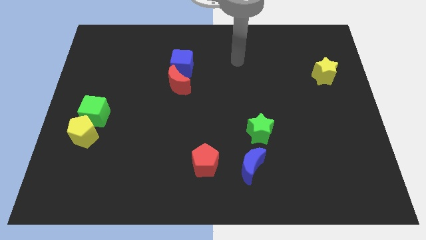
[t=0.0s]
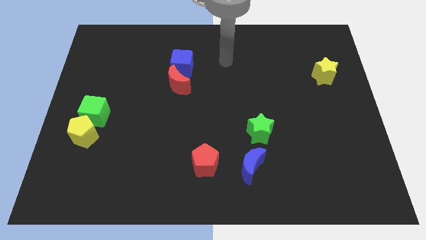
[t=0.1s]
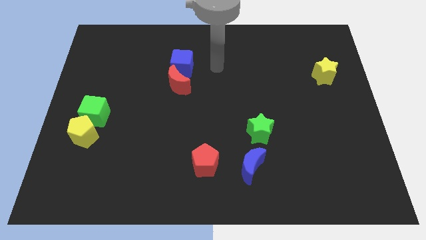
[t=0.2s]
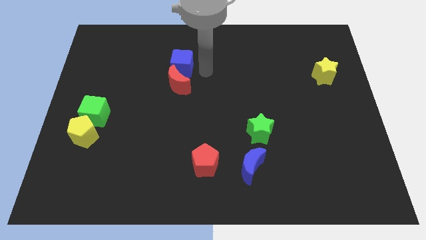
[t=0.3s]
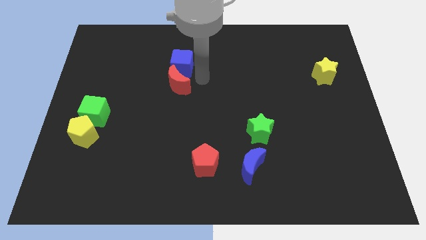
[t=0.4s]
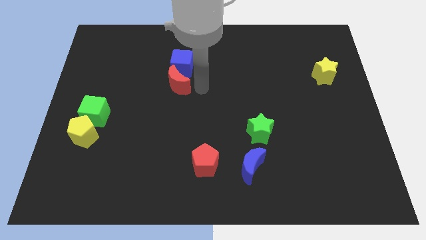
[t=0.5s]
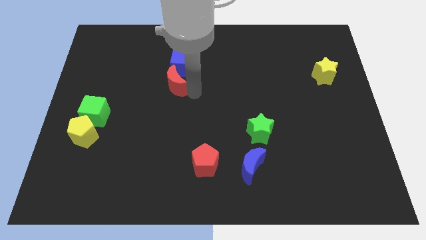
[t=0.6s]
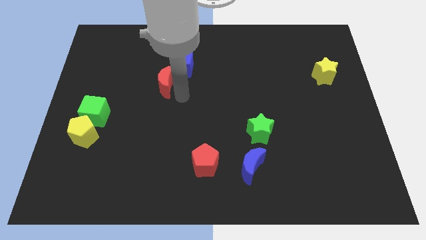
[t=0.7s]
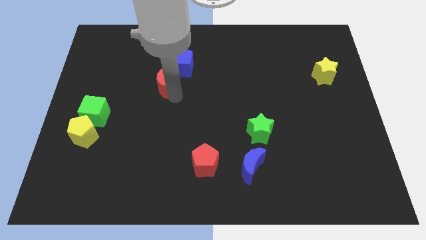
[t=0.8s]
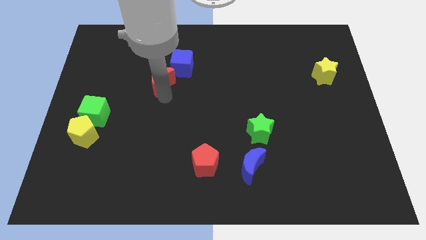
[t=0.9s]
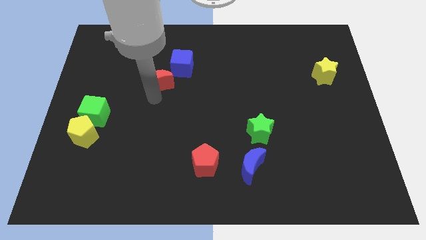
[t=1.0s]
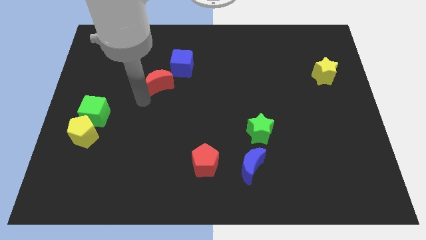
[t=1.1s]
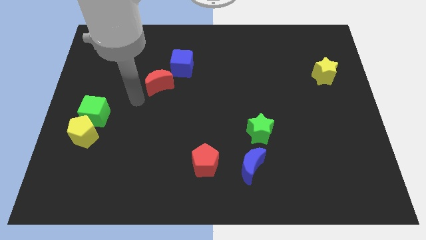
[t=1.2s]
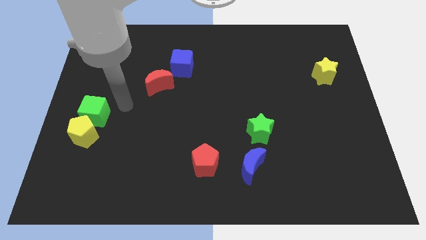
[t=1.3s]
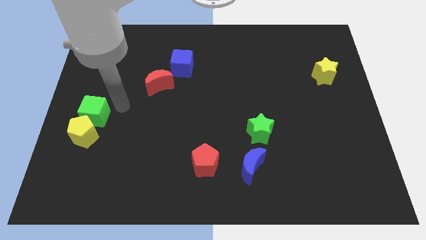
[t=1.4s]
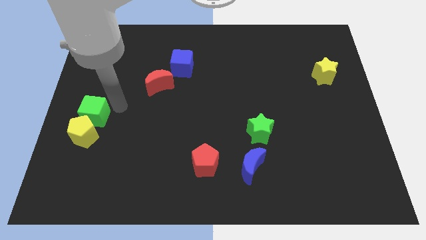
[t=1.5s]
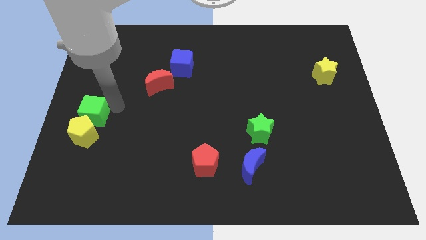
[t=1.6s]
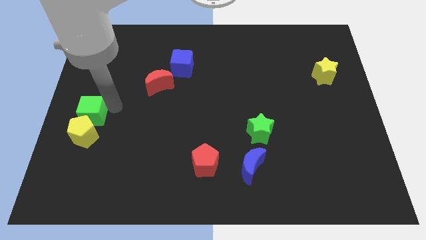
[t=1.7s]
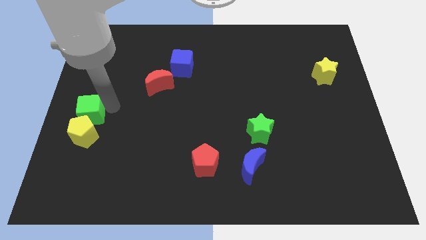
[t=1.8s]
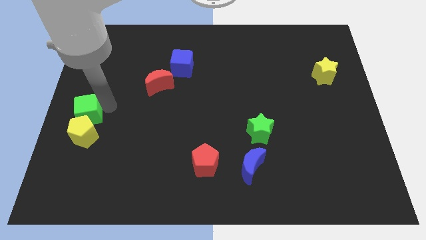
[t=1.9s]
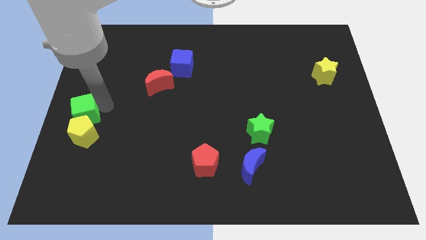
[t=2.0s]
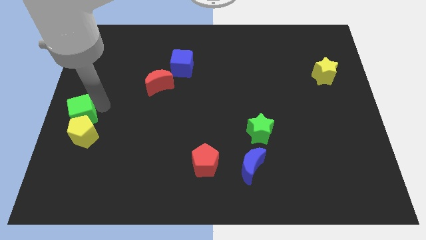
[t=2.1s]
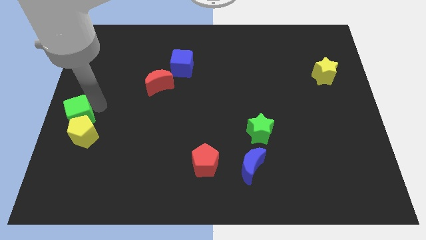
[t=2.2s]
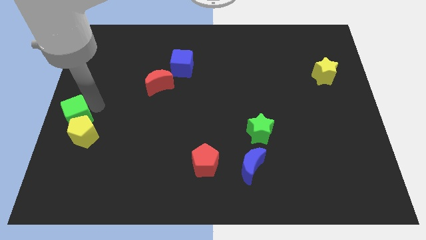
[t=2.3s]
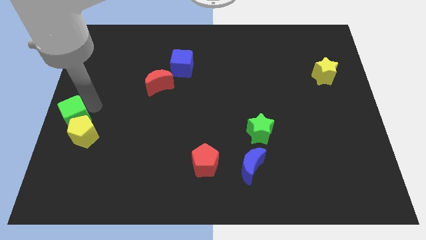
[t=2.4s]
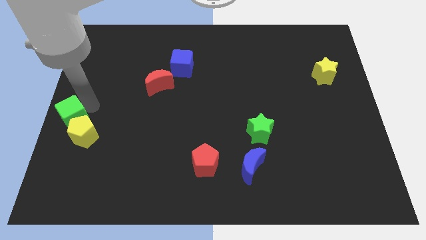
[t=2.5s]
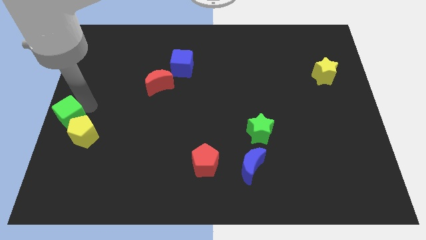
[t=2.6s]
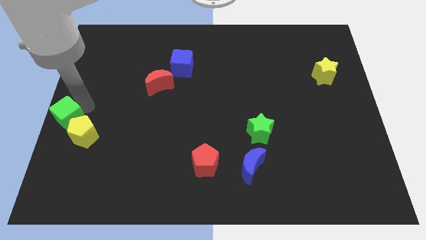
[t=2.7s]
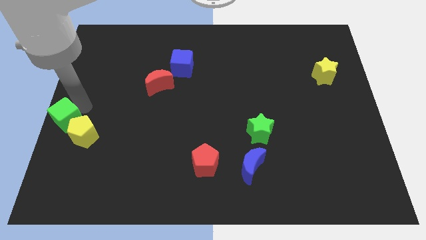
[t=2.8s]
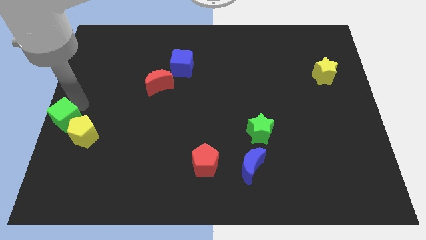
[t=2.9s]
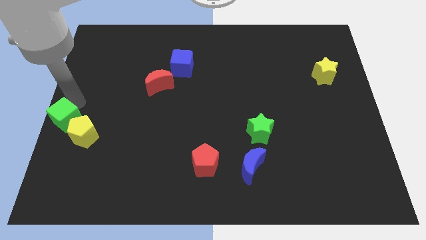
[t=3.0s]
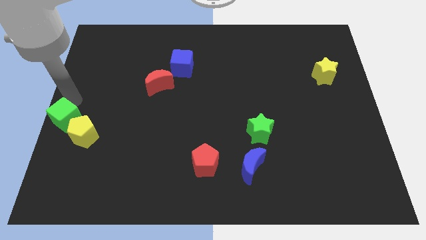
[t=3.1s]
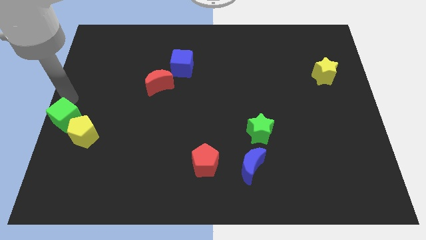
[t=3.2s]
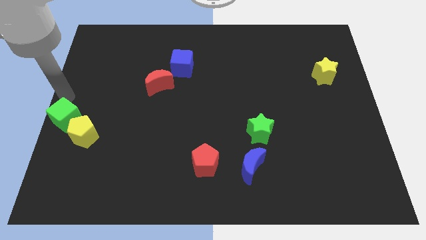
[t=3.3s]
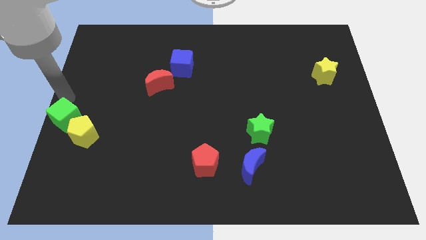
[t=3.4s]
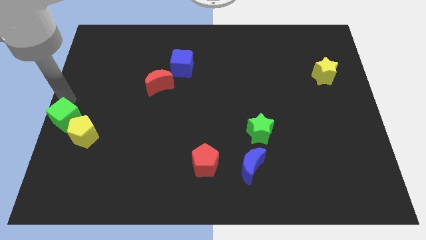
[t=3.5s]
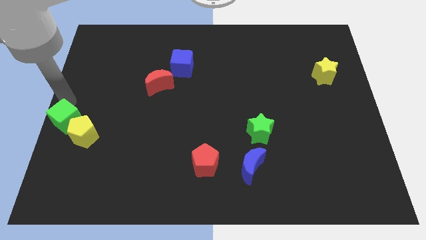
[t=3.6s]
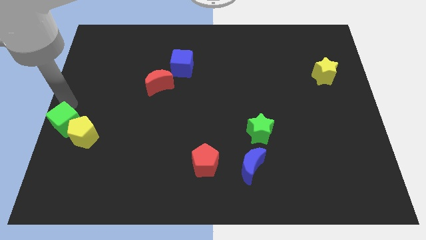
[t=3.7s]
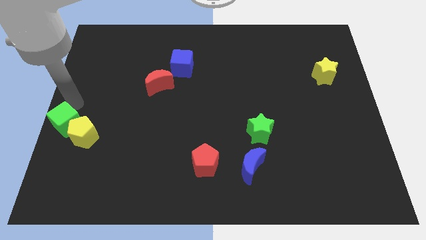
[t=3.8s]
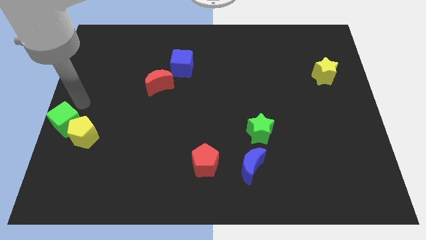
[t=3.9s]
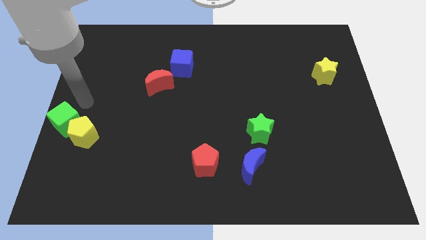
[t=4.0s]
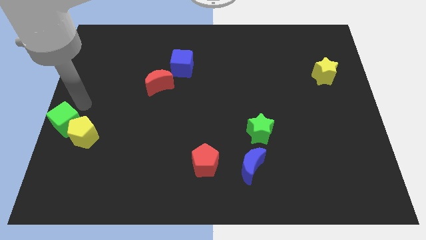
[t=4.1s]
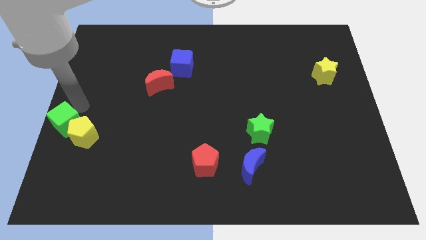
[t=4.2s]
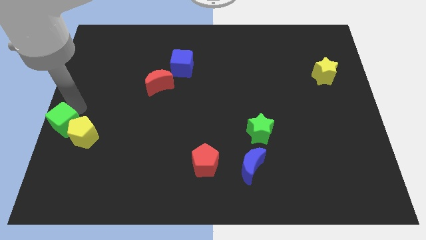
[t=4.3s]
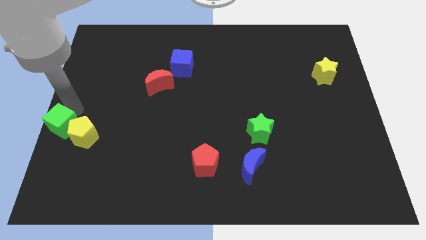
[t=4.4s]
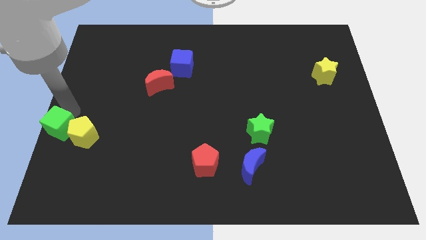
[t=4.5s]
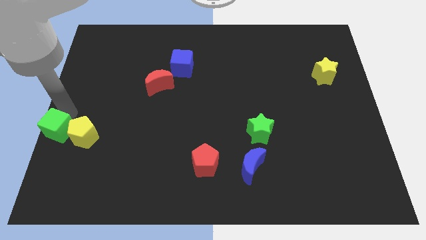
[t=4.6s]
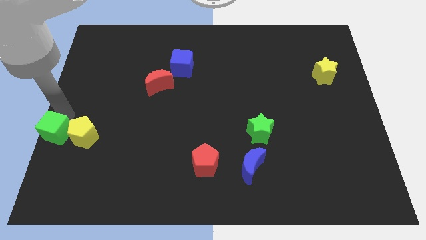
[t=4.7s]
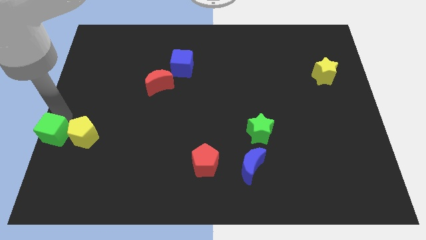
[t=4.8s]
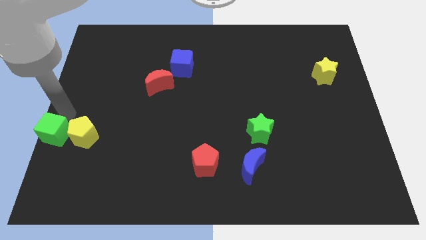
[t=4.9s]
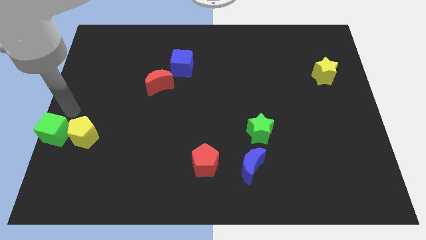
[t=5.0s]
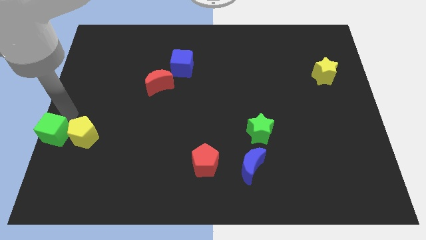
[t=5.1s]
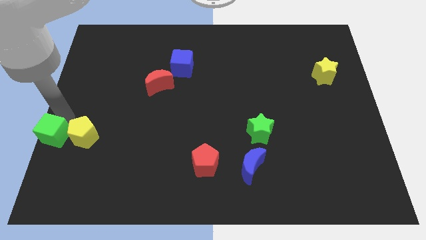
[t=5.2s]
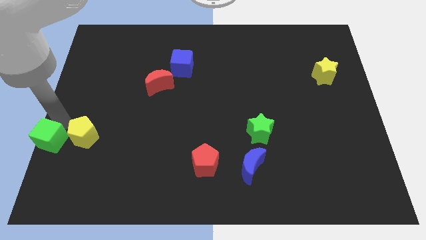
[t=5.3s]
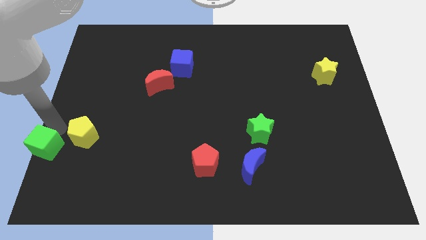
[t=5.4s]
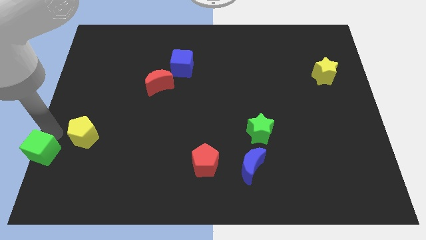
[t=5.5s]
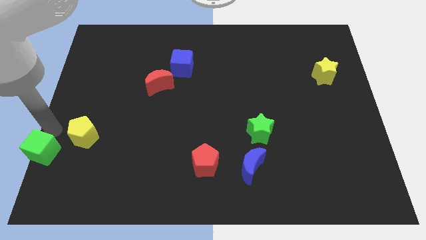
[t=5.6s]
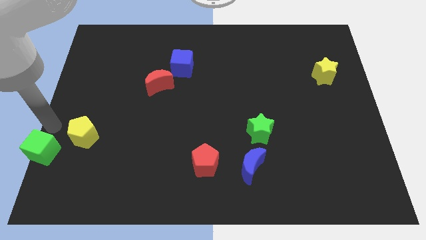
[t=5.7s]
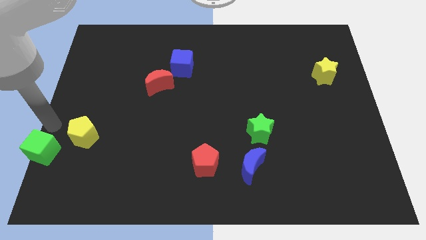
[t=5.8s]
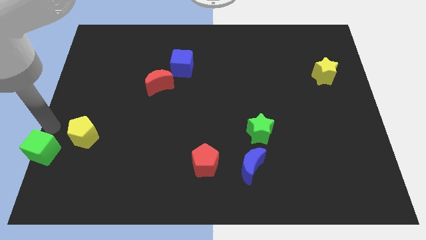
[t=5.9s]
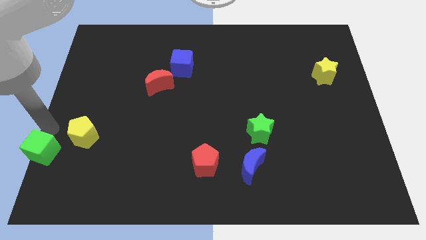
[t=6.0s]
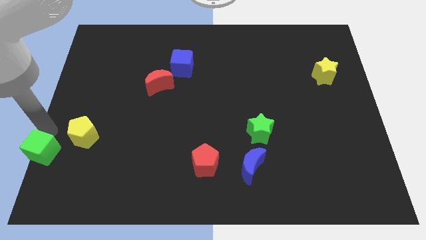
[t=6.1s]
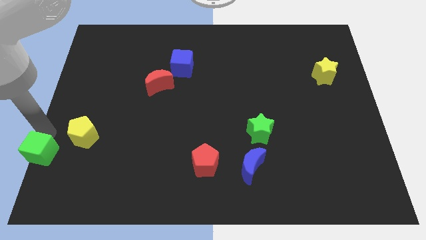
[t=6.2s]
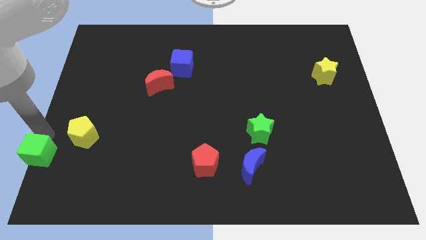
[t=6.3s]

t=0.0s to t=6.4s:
slide the green cube to the bottom left of the board

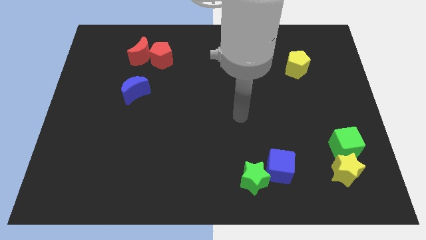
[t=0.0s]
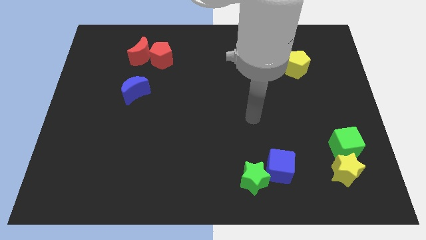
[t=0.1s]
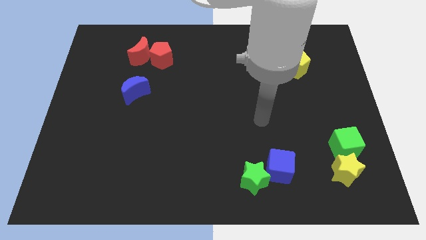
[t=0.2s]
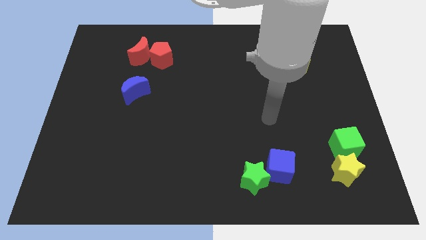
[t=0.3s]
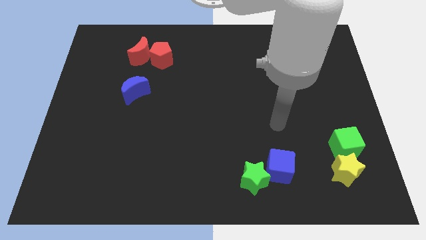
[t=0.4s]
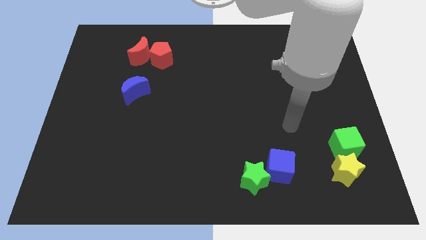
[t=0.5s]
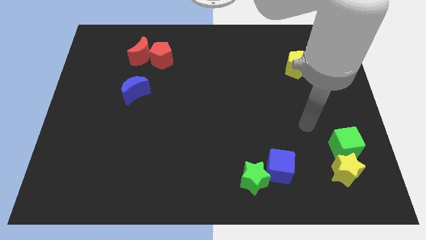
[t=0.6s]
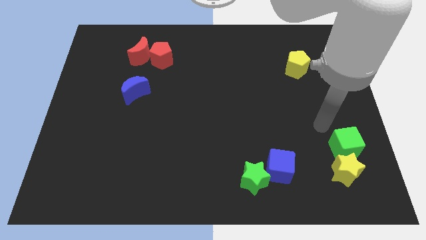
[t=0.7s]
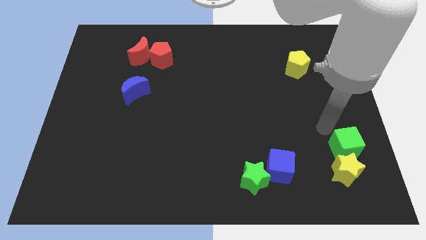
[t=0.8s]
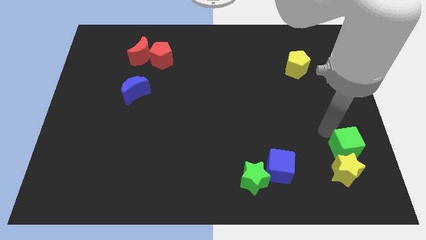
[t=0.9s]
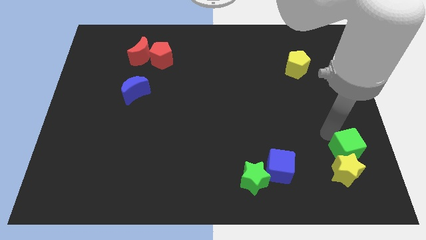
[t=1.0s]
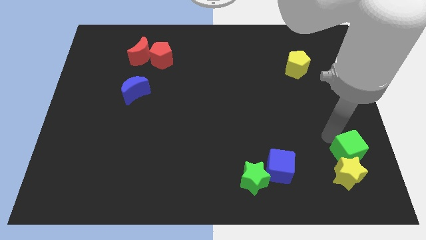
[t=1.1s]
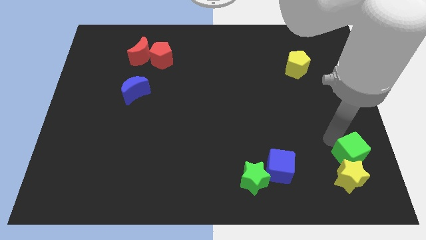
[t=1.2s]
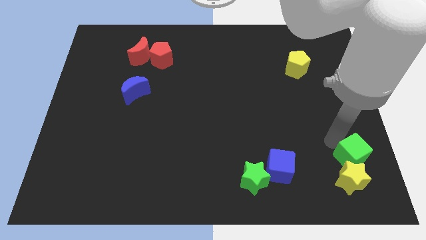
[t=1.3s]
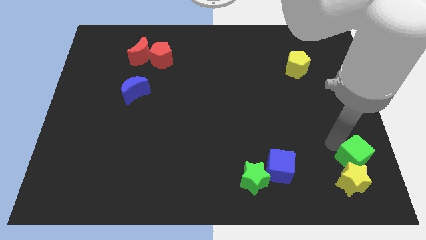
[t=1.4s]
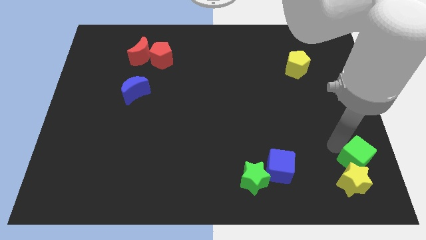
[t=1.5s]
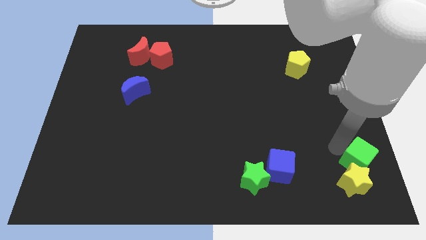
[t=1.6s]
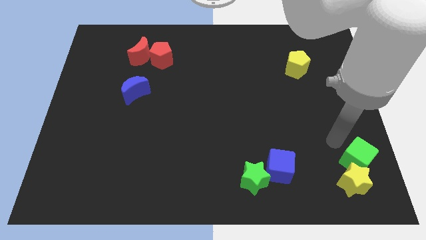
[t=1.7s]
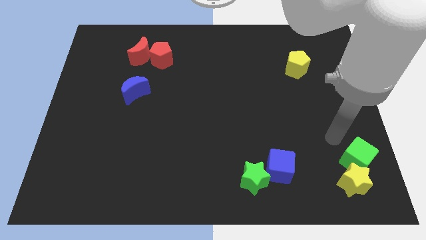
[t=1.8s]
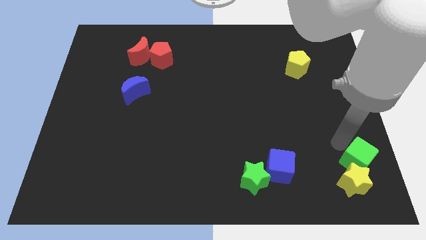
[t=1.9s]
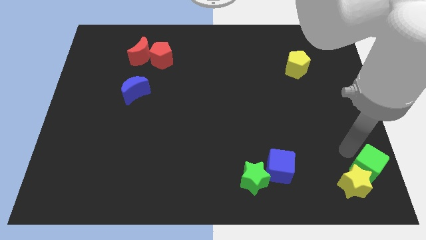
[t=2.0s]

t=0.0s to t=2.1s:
put the green cube to the bottom right of the board
